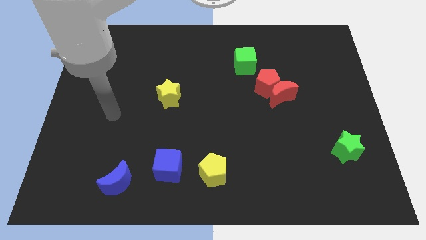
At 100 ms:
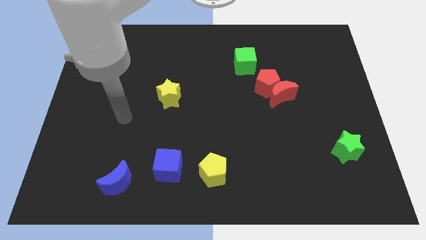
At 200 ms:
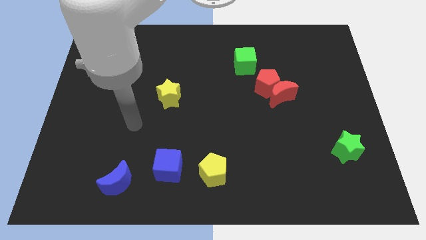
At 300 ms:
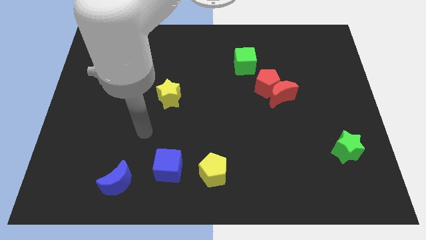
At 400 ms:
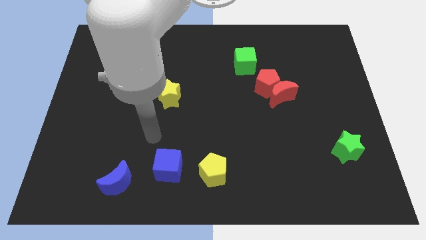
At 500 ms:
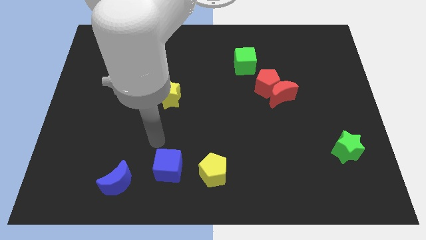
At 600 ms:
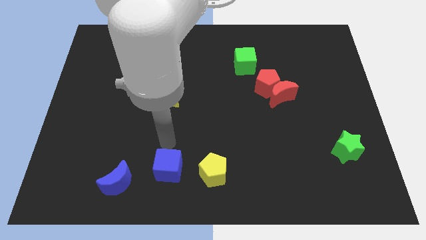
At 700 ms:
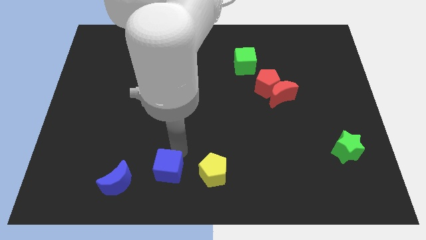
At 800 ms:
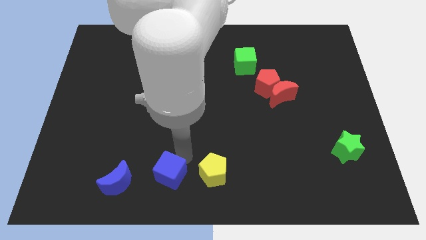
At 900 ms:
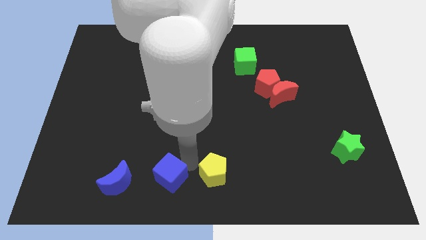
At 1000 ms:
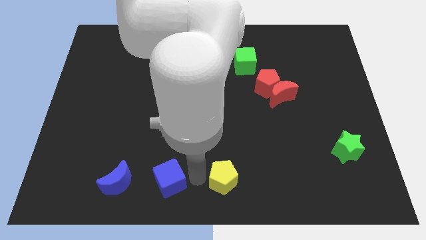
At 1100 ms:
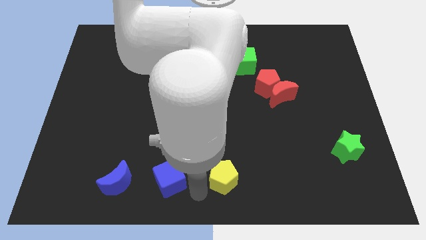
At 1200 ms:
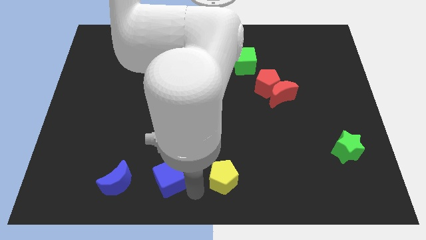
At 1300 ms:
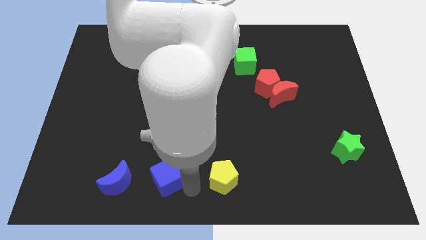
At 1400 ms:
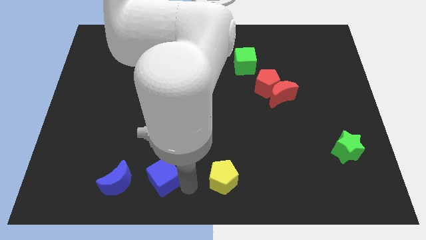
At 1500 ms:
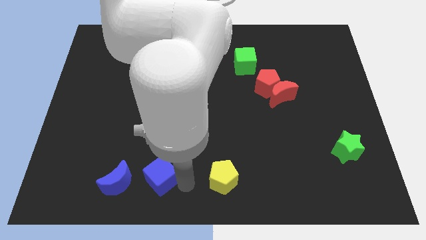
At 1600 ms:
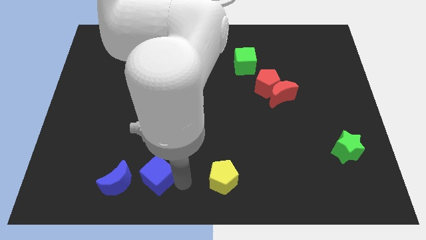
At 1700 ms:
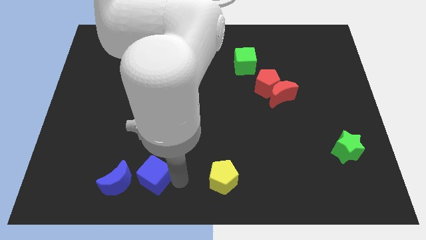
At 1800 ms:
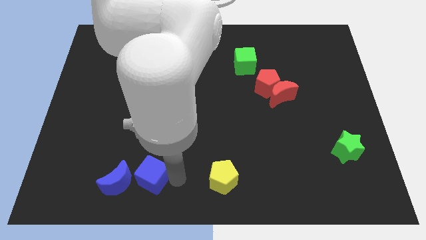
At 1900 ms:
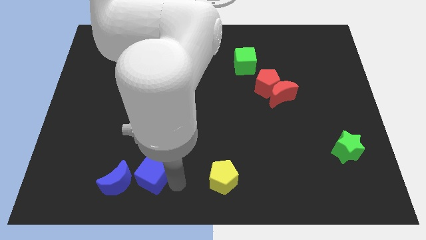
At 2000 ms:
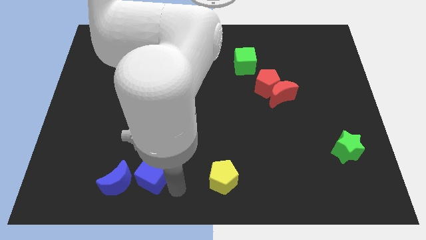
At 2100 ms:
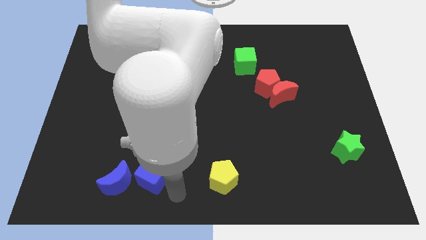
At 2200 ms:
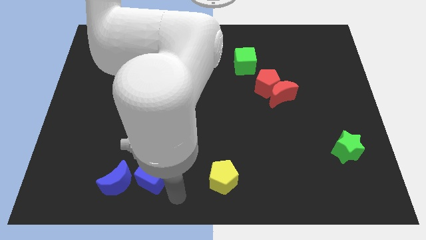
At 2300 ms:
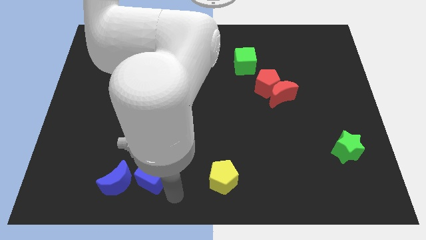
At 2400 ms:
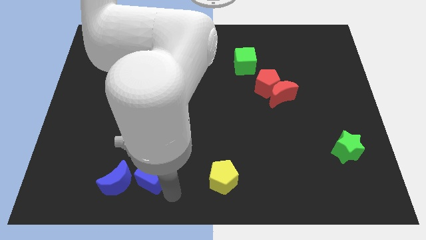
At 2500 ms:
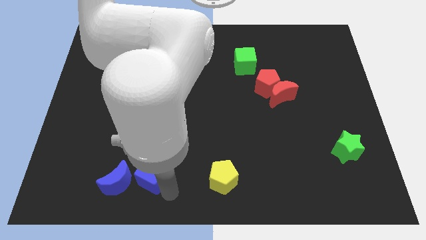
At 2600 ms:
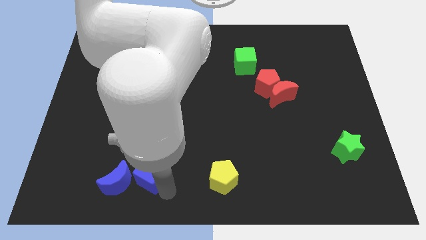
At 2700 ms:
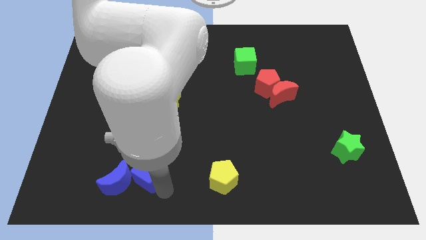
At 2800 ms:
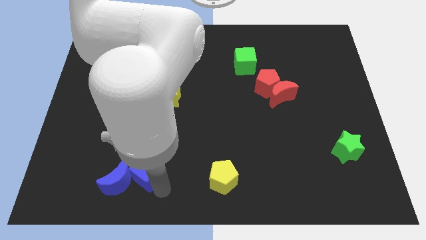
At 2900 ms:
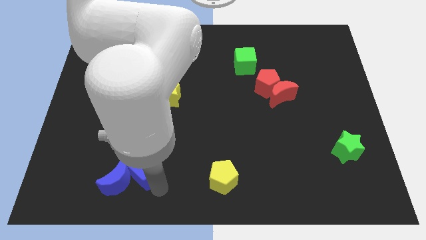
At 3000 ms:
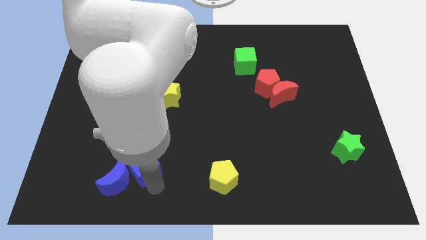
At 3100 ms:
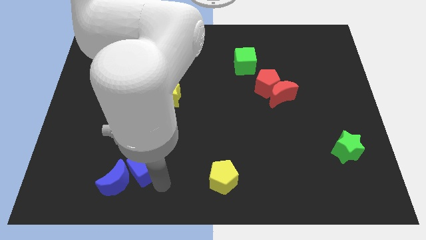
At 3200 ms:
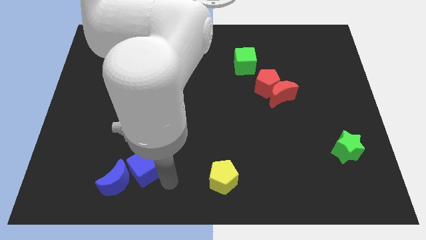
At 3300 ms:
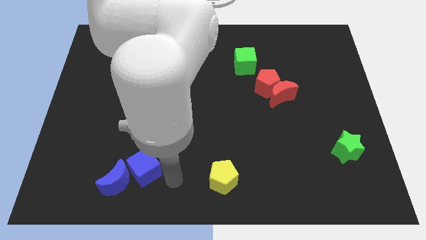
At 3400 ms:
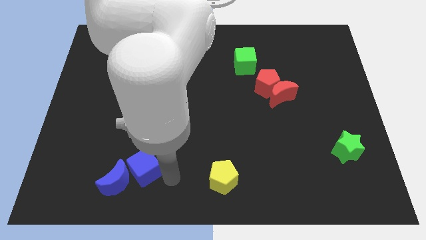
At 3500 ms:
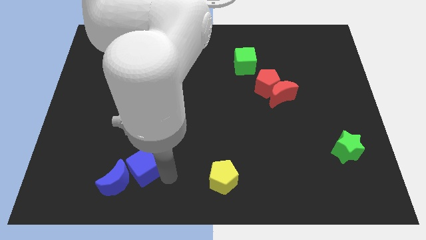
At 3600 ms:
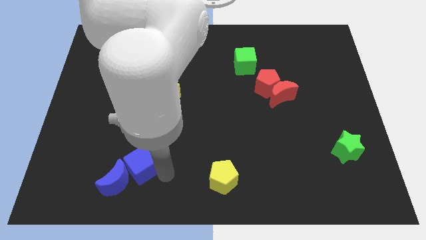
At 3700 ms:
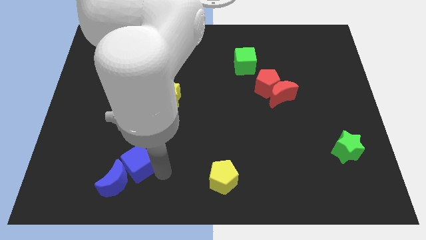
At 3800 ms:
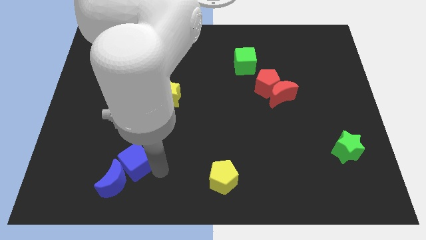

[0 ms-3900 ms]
push the blue cube to the left slightly

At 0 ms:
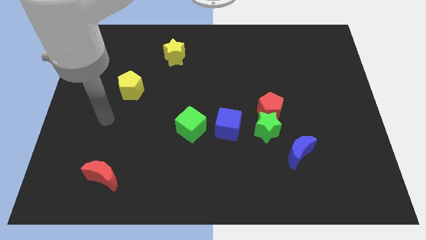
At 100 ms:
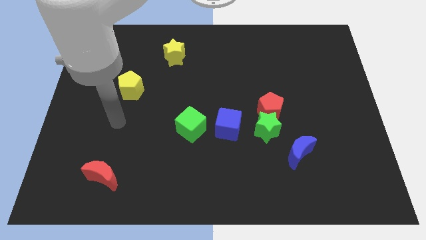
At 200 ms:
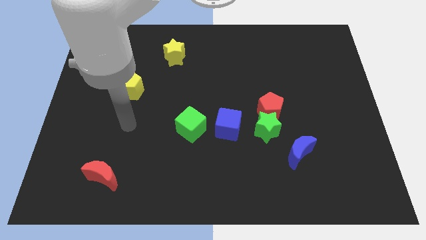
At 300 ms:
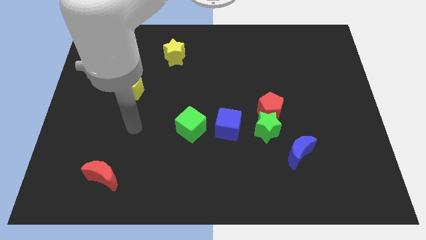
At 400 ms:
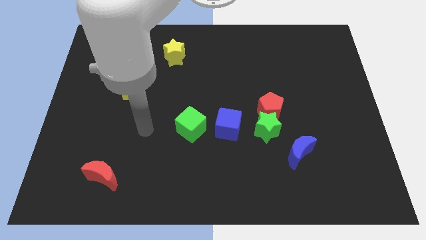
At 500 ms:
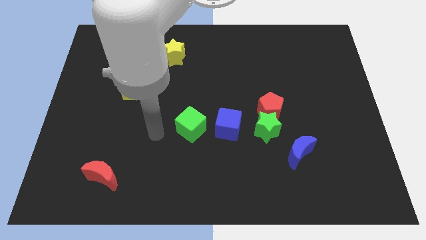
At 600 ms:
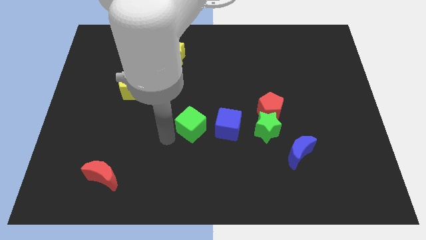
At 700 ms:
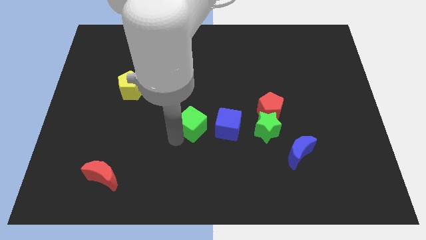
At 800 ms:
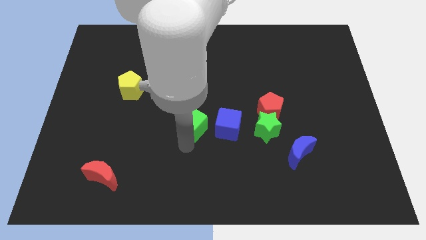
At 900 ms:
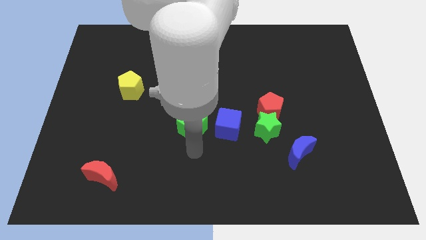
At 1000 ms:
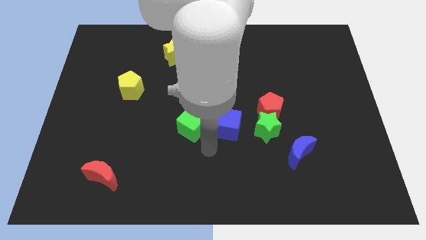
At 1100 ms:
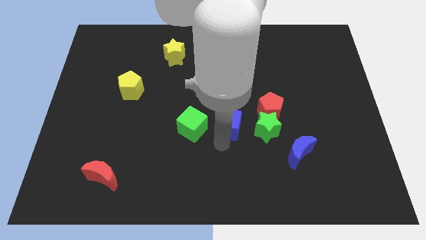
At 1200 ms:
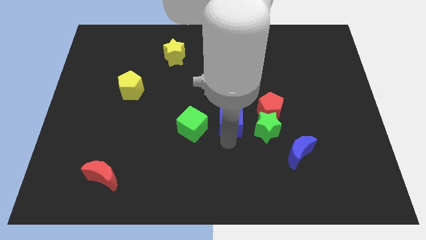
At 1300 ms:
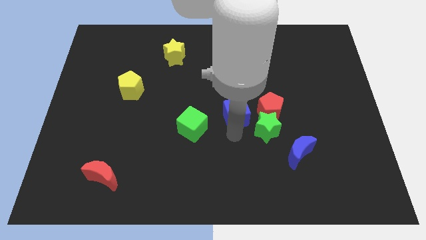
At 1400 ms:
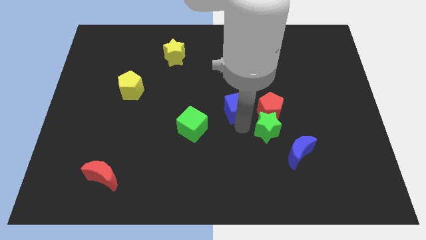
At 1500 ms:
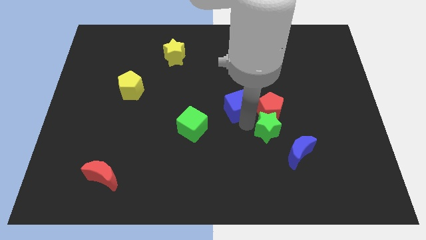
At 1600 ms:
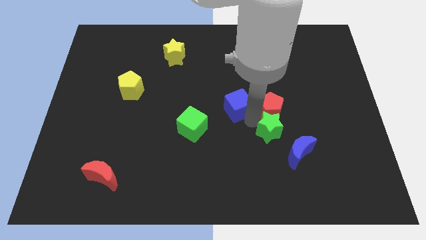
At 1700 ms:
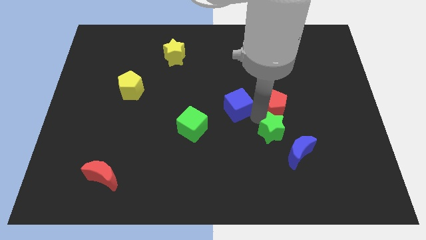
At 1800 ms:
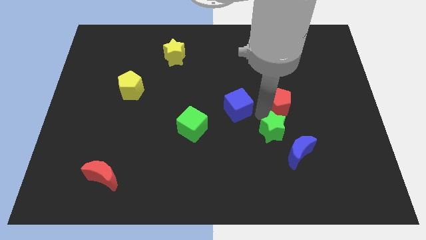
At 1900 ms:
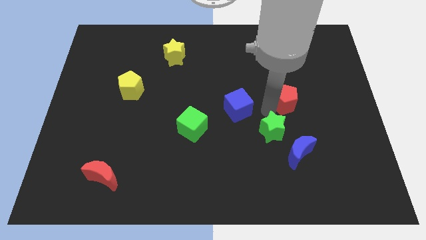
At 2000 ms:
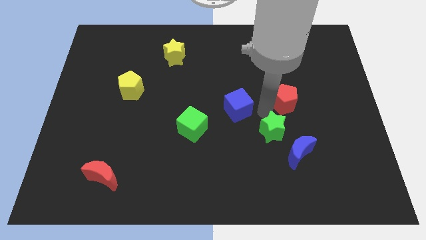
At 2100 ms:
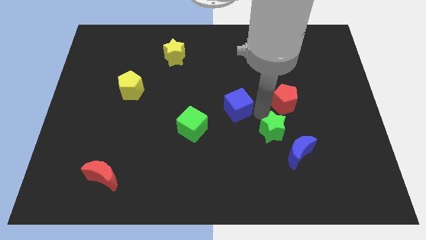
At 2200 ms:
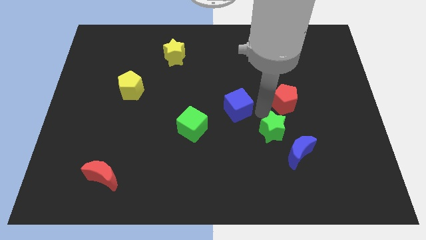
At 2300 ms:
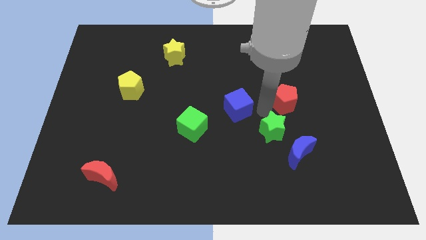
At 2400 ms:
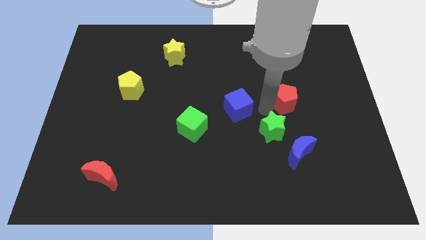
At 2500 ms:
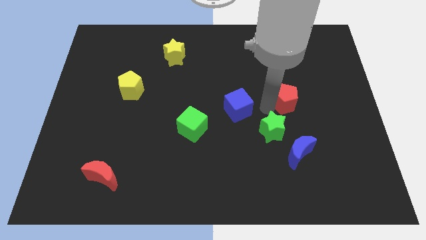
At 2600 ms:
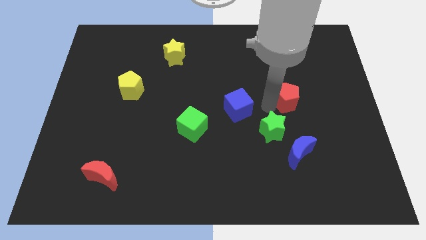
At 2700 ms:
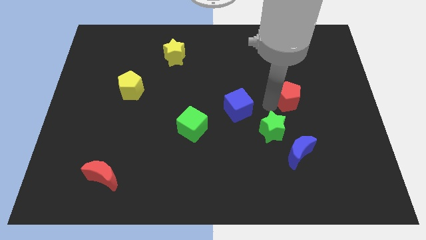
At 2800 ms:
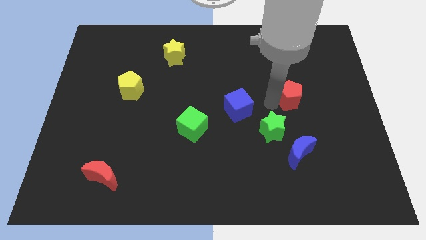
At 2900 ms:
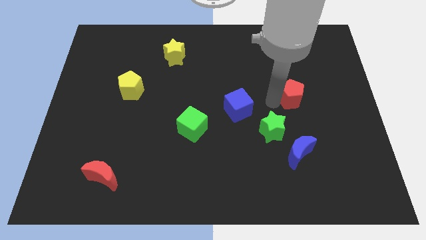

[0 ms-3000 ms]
push the red pentagon diagonally upwards and right a little

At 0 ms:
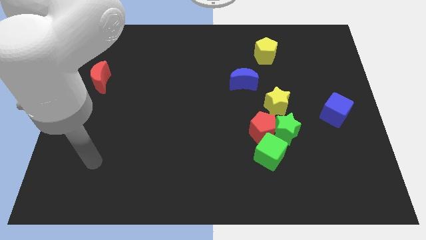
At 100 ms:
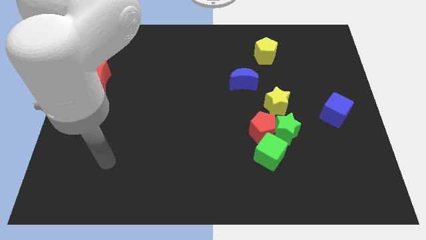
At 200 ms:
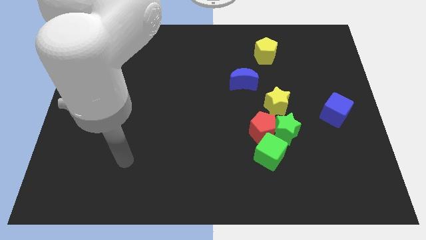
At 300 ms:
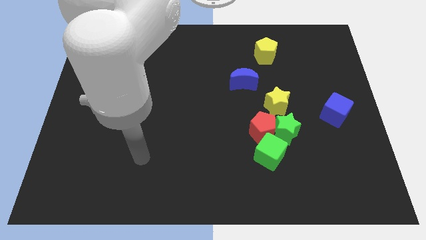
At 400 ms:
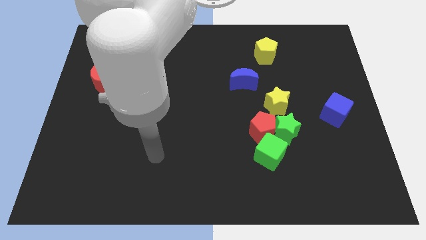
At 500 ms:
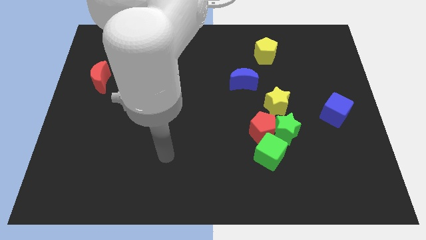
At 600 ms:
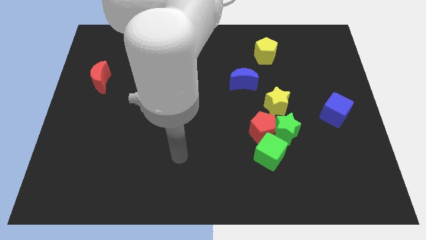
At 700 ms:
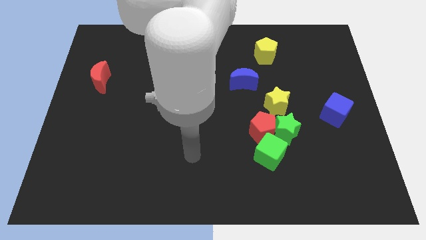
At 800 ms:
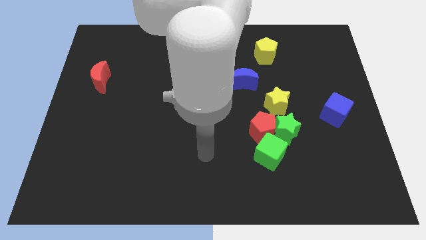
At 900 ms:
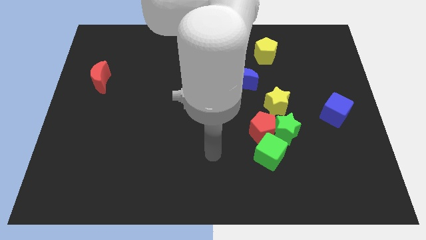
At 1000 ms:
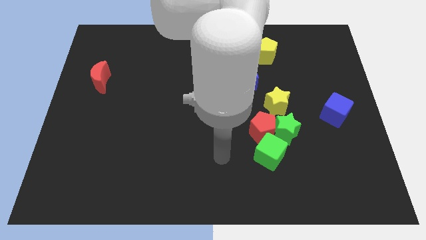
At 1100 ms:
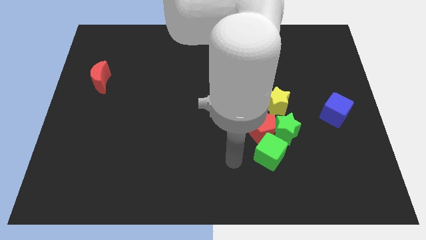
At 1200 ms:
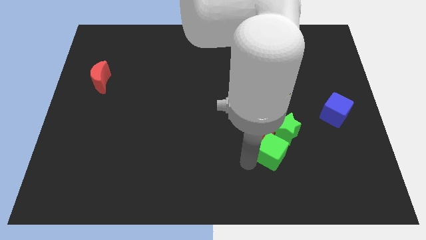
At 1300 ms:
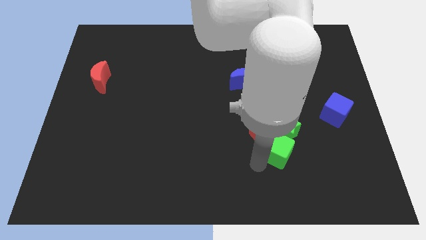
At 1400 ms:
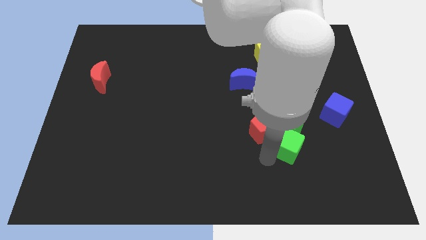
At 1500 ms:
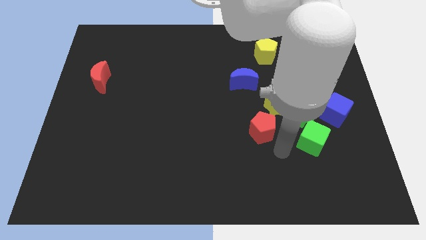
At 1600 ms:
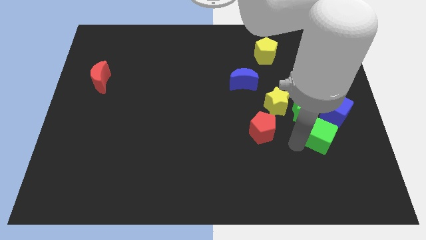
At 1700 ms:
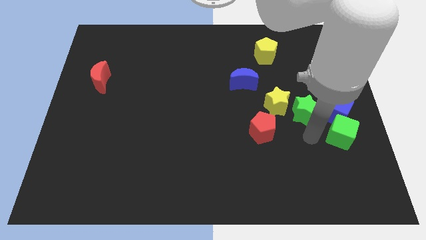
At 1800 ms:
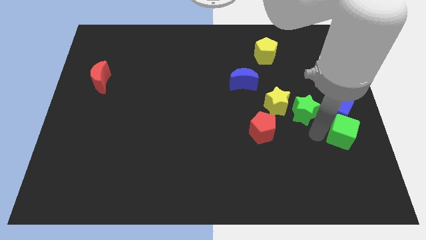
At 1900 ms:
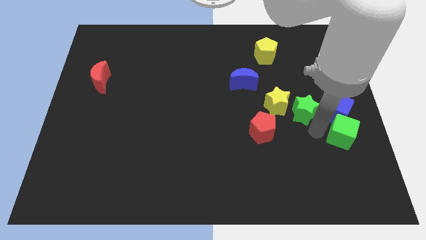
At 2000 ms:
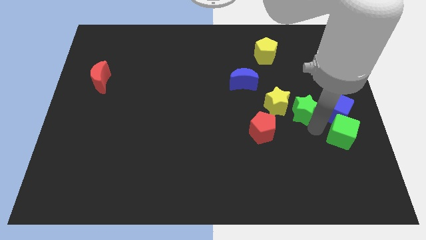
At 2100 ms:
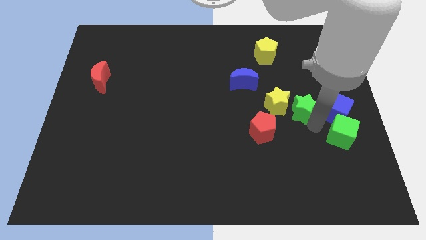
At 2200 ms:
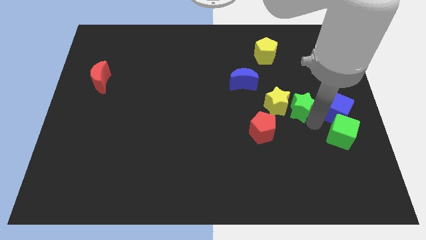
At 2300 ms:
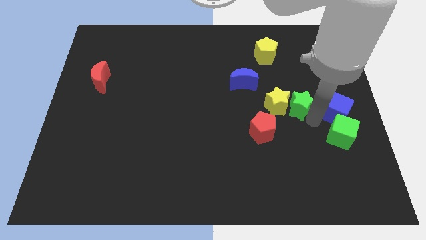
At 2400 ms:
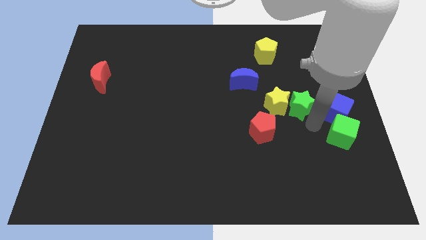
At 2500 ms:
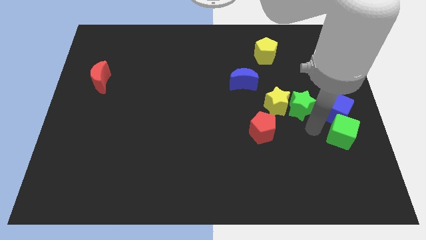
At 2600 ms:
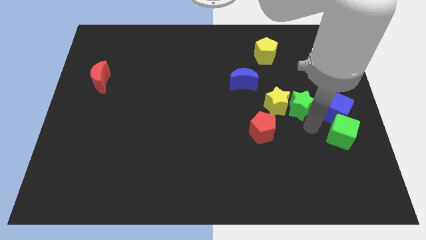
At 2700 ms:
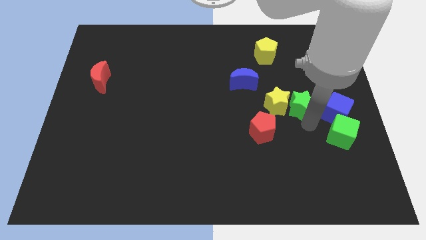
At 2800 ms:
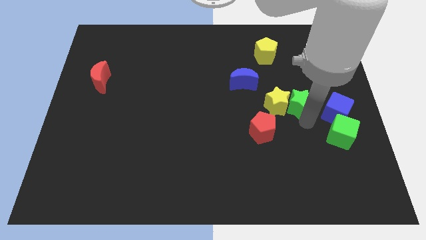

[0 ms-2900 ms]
move the green star up a bit
